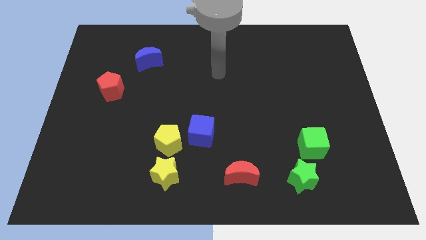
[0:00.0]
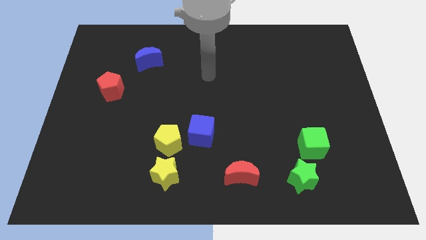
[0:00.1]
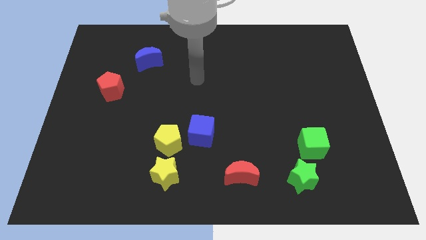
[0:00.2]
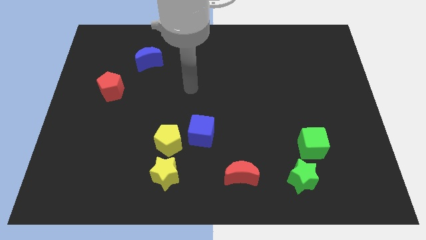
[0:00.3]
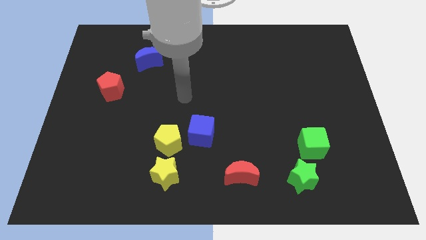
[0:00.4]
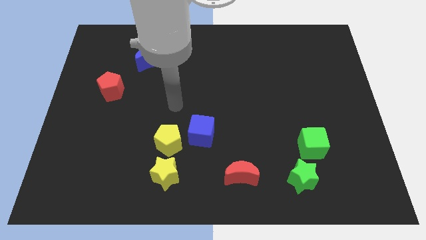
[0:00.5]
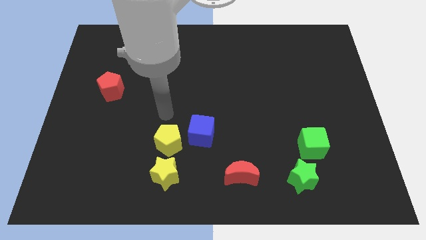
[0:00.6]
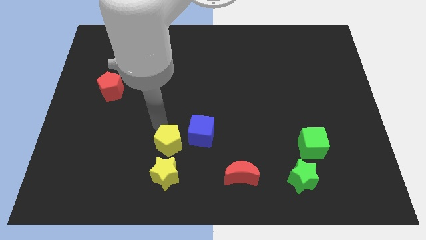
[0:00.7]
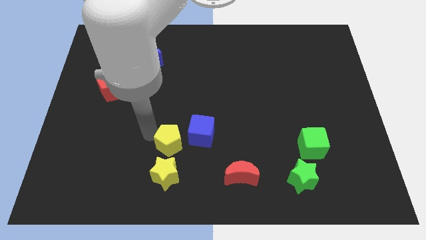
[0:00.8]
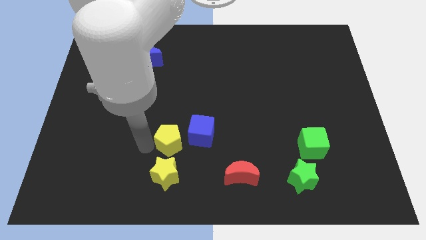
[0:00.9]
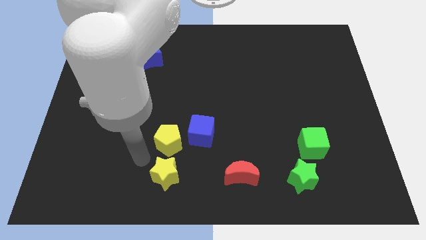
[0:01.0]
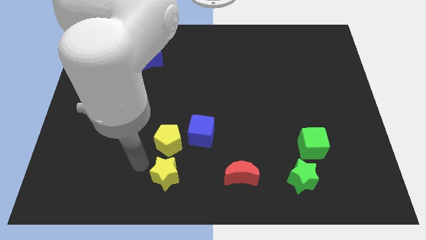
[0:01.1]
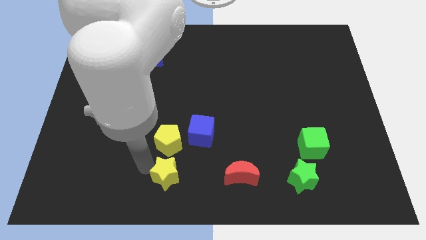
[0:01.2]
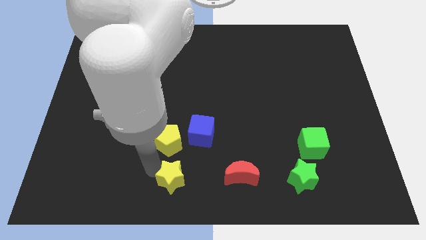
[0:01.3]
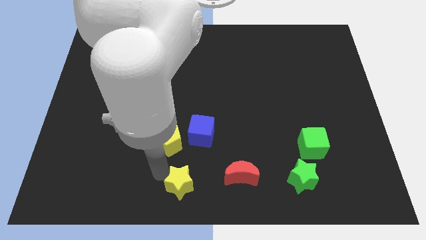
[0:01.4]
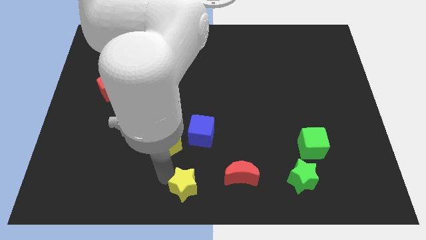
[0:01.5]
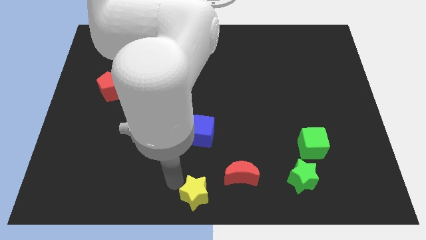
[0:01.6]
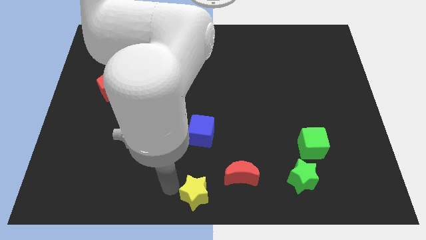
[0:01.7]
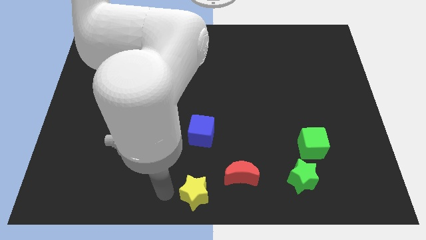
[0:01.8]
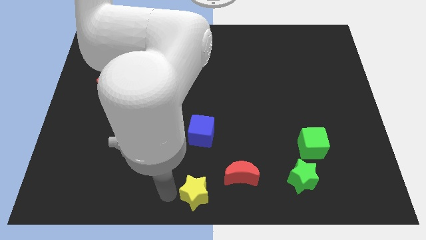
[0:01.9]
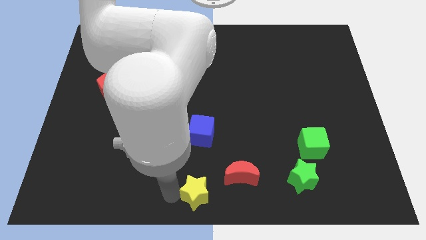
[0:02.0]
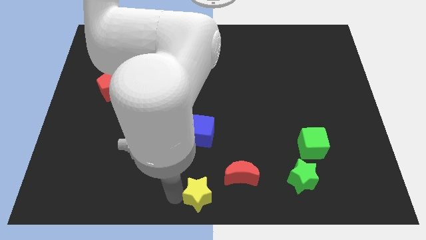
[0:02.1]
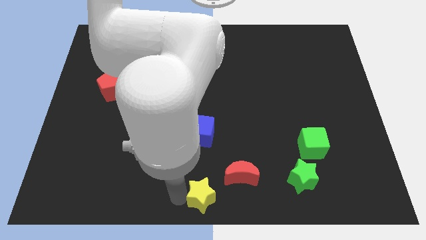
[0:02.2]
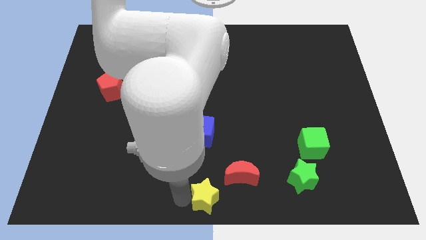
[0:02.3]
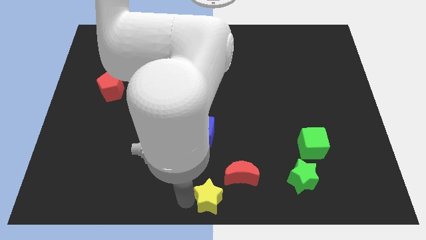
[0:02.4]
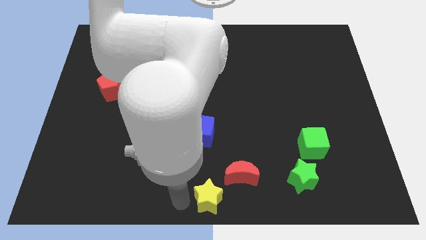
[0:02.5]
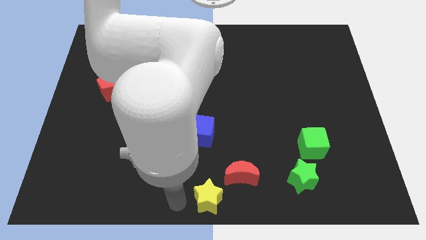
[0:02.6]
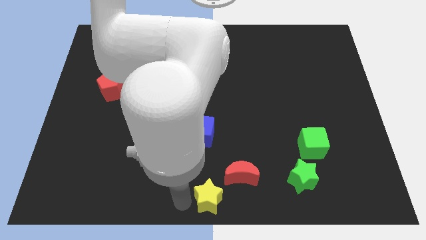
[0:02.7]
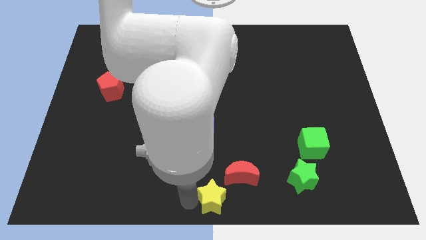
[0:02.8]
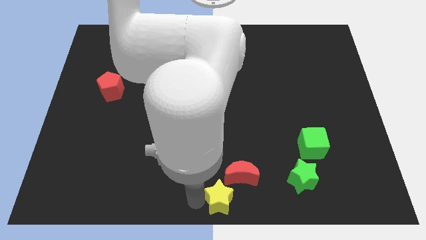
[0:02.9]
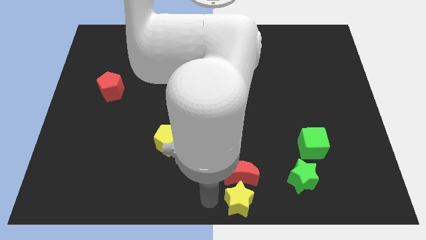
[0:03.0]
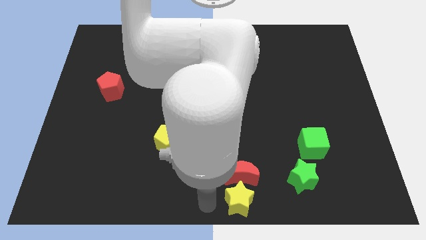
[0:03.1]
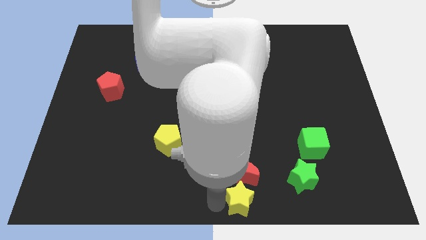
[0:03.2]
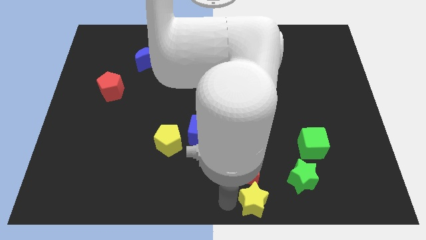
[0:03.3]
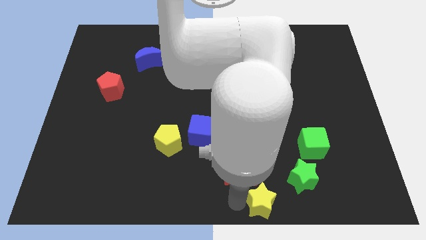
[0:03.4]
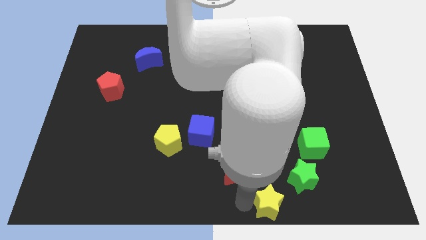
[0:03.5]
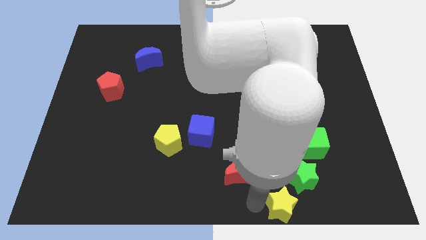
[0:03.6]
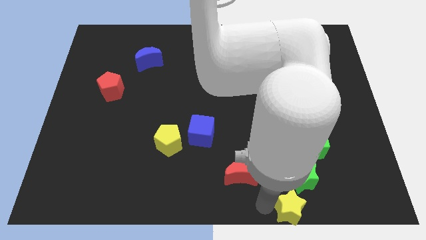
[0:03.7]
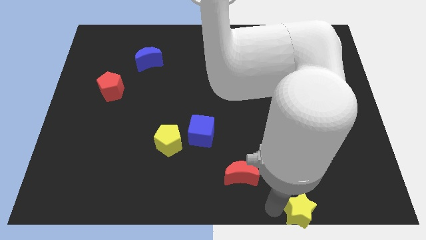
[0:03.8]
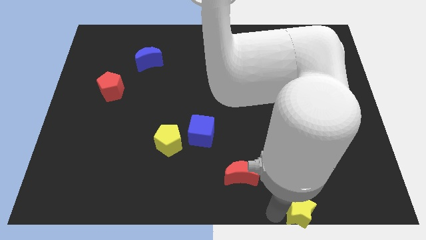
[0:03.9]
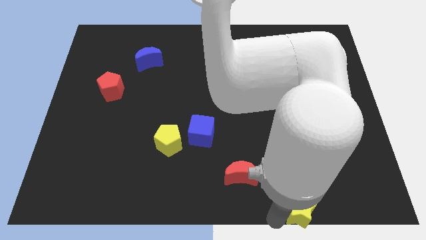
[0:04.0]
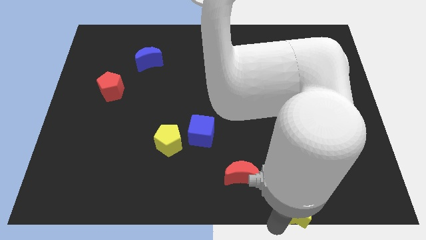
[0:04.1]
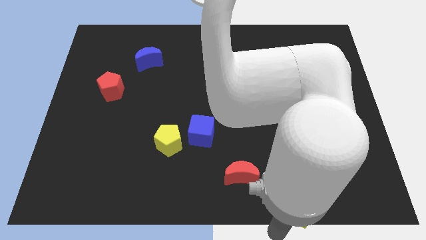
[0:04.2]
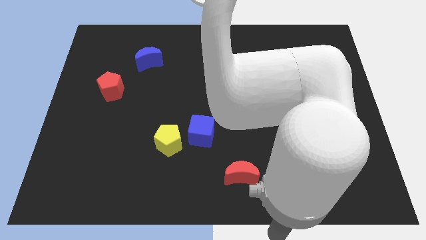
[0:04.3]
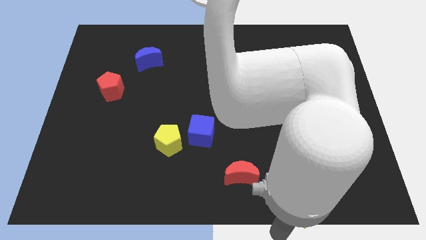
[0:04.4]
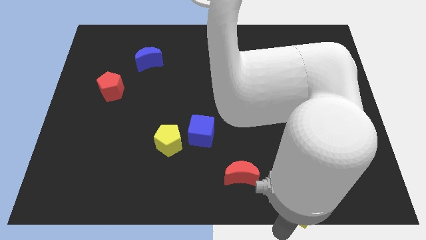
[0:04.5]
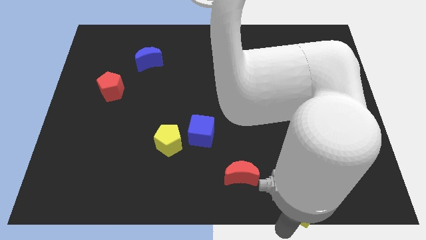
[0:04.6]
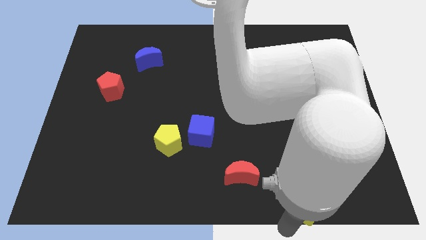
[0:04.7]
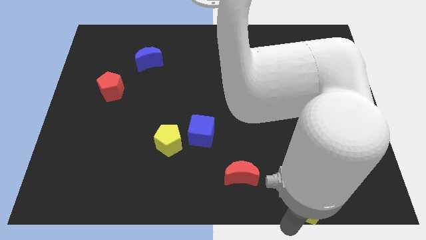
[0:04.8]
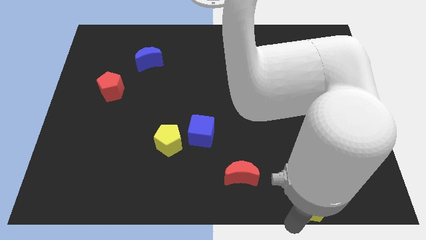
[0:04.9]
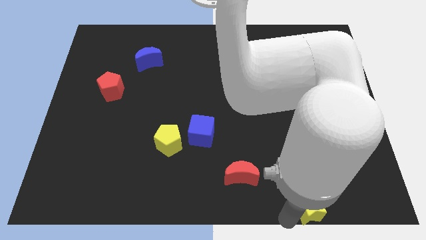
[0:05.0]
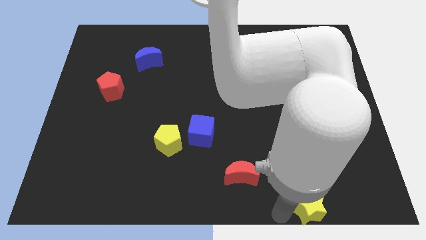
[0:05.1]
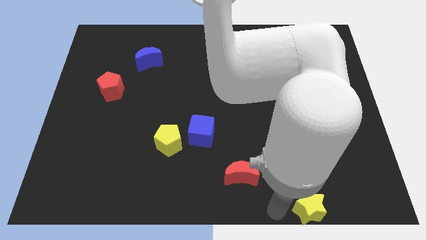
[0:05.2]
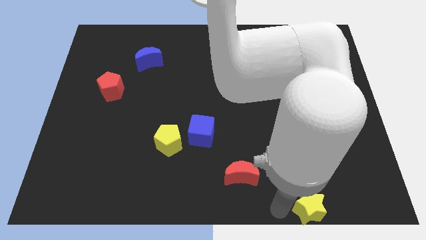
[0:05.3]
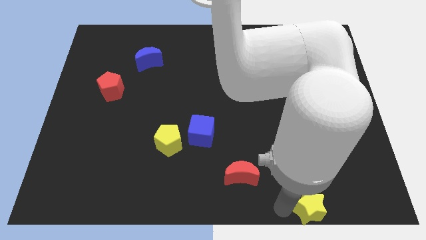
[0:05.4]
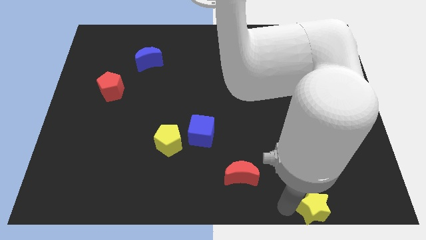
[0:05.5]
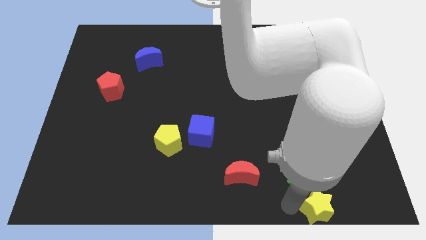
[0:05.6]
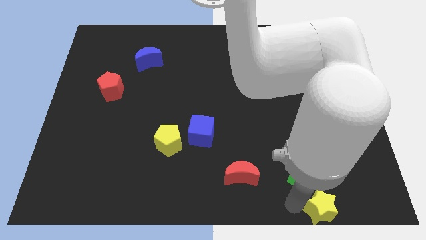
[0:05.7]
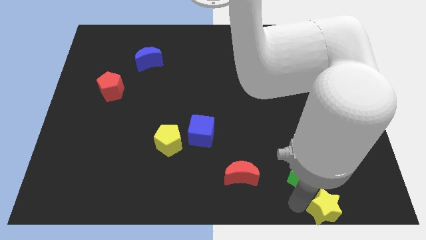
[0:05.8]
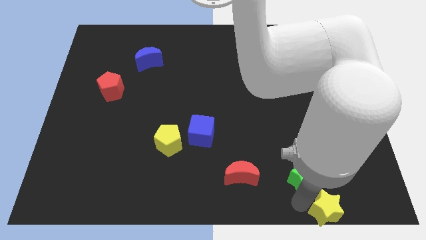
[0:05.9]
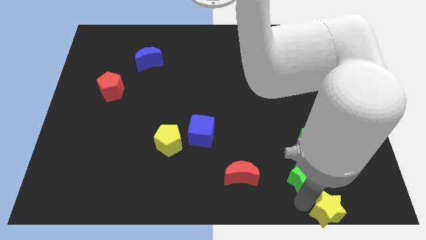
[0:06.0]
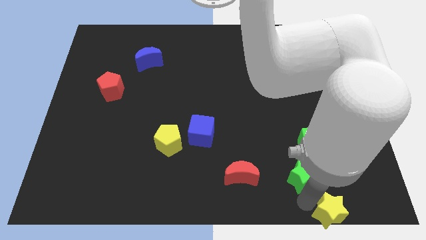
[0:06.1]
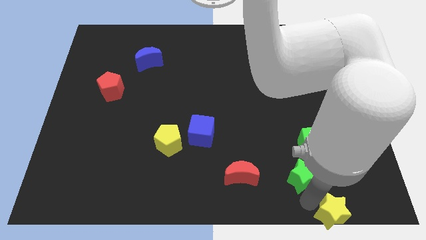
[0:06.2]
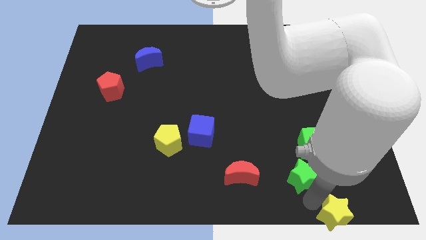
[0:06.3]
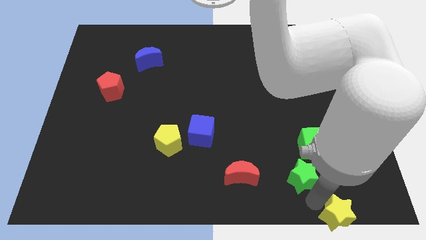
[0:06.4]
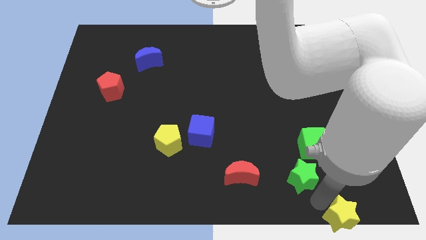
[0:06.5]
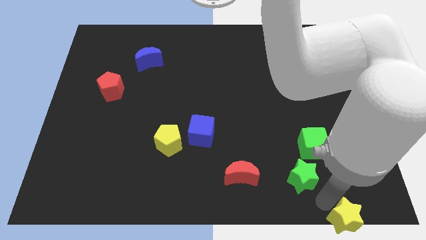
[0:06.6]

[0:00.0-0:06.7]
slide the yellow star to the bottom right corner
